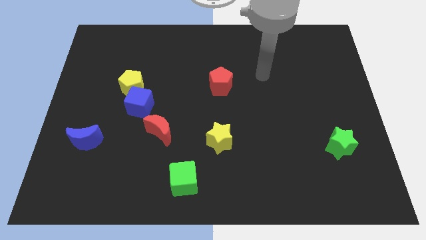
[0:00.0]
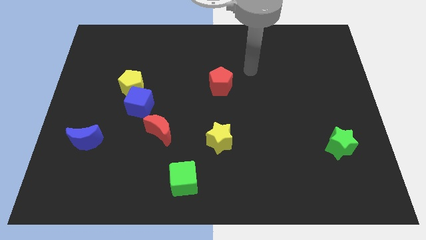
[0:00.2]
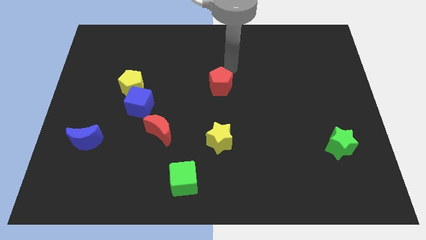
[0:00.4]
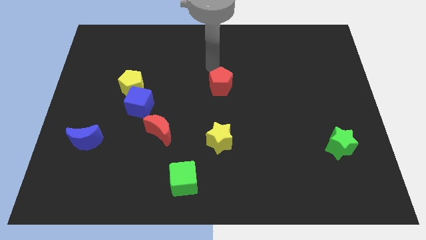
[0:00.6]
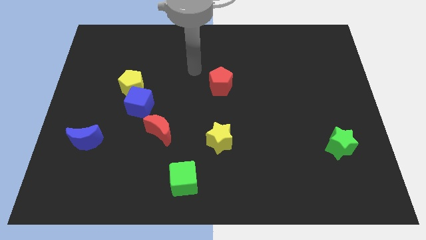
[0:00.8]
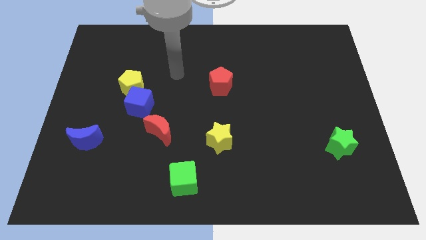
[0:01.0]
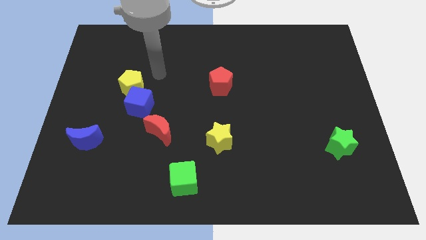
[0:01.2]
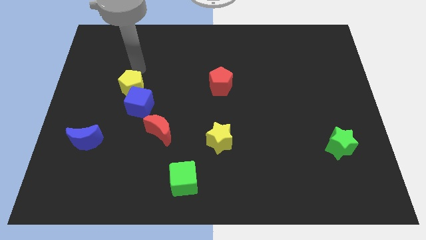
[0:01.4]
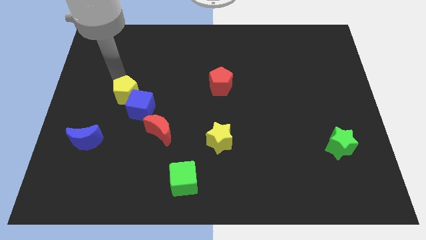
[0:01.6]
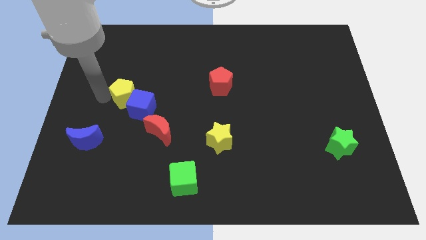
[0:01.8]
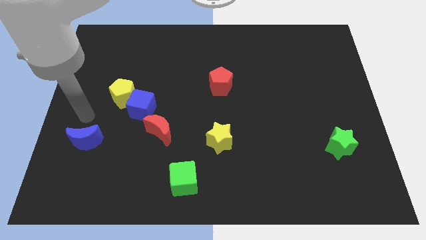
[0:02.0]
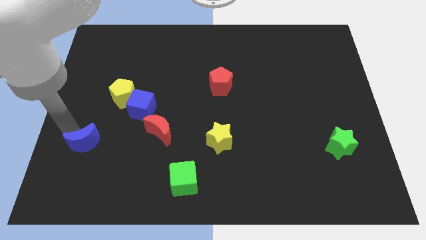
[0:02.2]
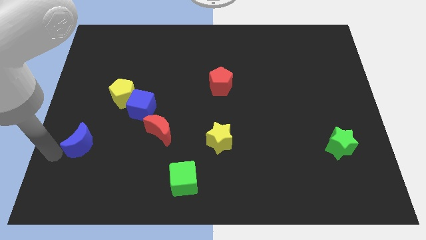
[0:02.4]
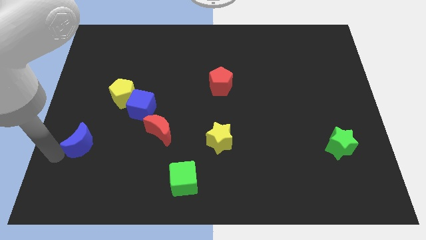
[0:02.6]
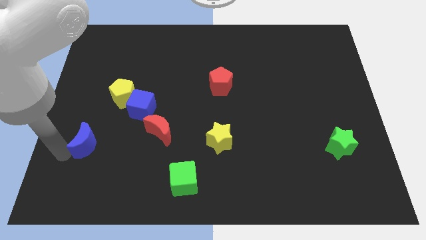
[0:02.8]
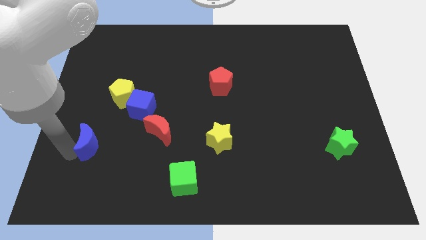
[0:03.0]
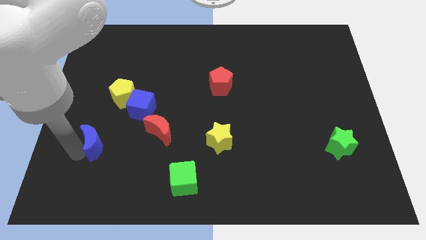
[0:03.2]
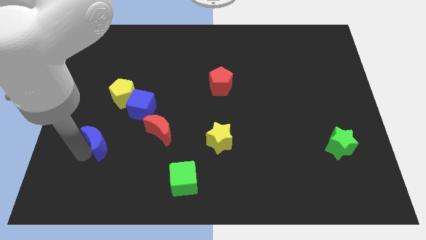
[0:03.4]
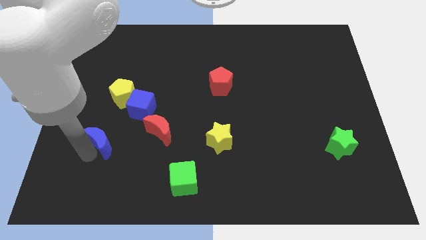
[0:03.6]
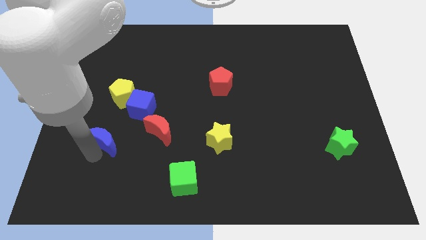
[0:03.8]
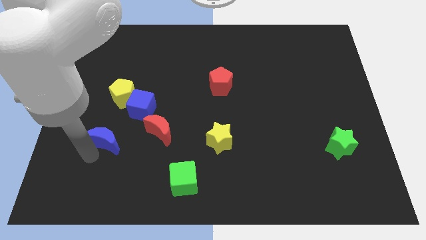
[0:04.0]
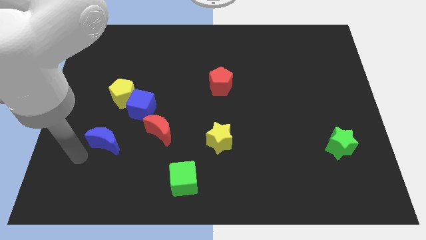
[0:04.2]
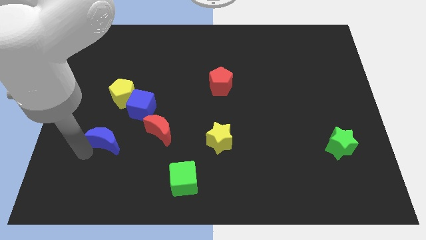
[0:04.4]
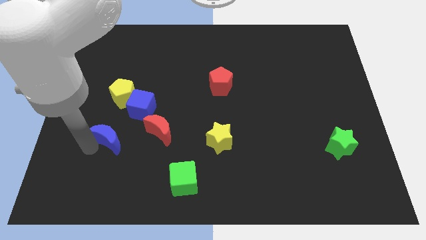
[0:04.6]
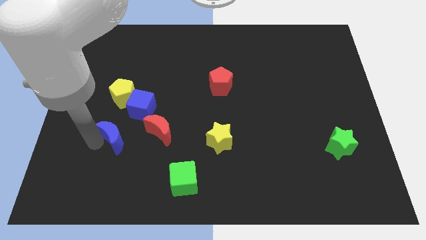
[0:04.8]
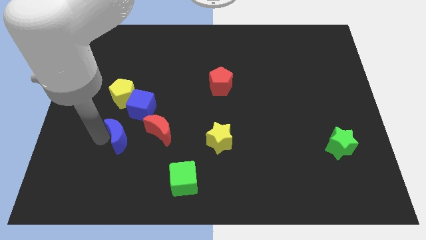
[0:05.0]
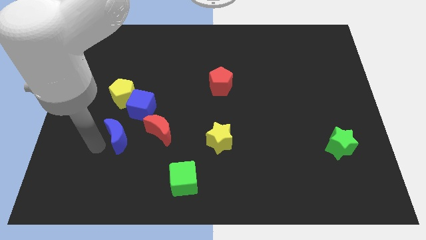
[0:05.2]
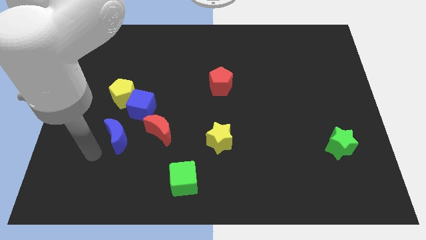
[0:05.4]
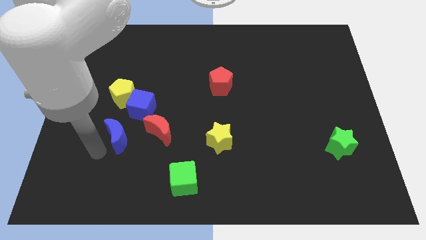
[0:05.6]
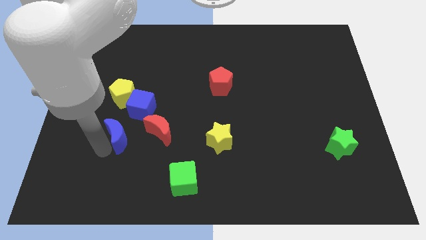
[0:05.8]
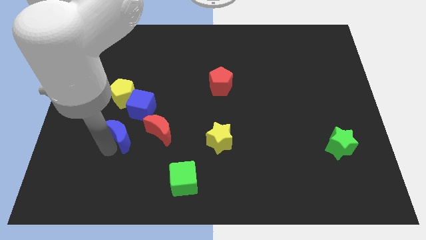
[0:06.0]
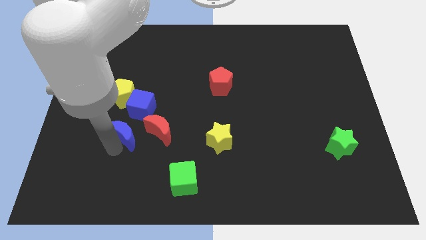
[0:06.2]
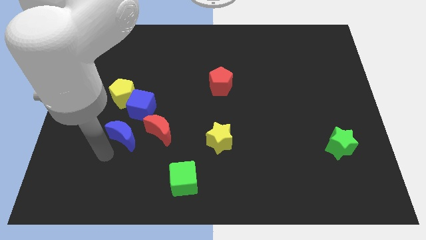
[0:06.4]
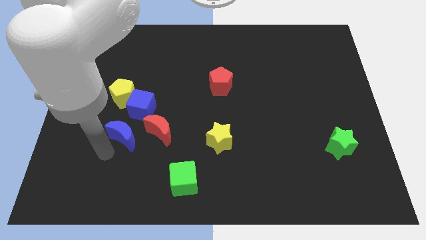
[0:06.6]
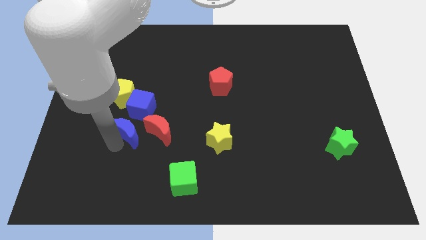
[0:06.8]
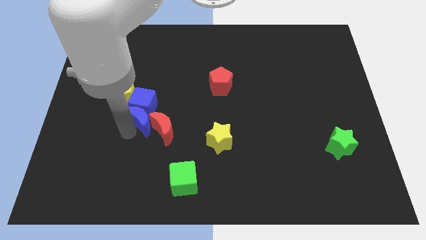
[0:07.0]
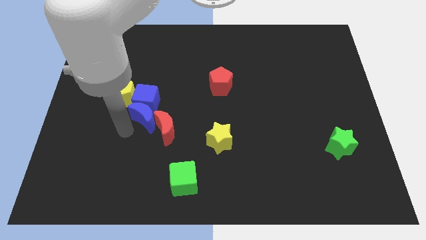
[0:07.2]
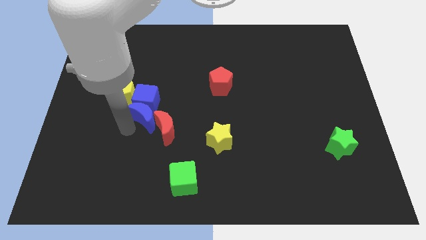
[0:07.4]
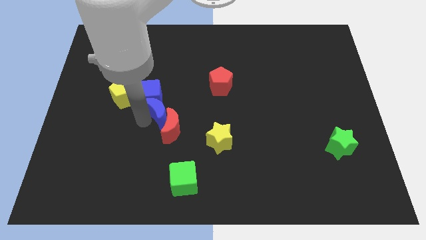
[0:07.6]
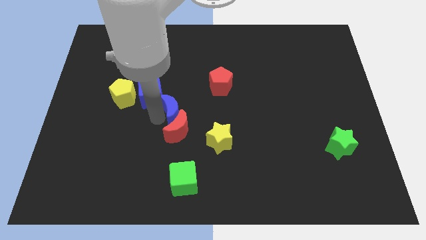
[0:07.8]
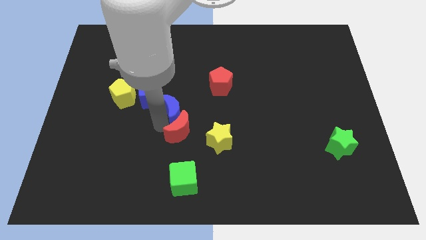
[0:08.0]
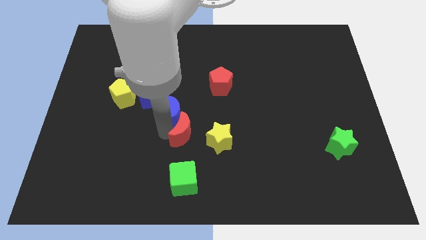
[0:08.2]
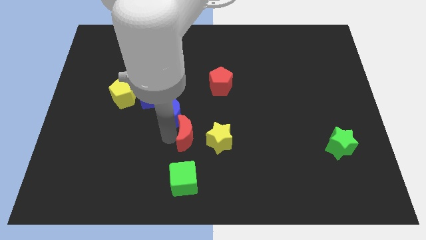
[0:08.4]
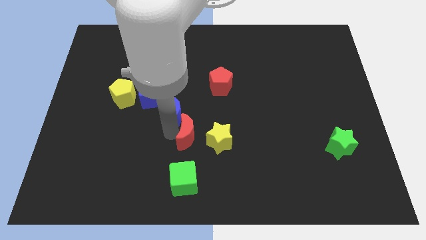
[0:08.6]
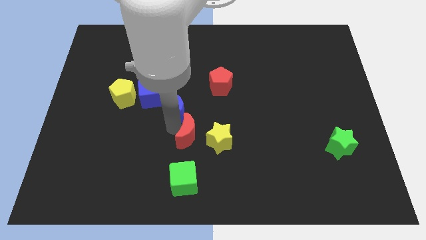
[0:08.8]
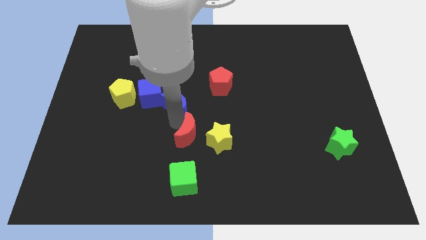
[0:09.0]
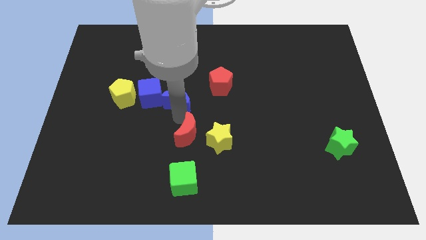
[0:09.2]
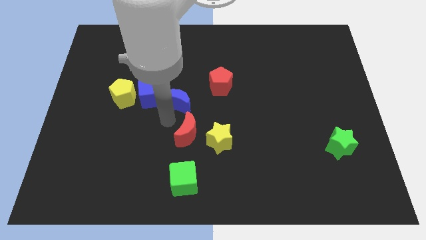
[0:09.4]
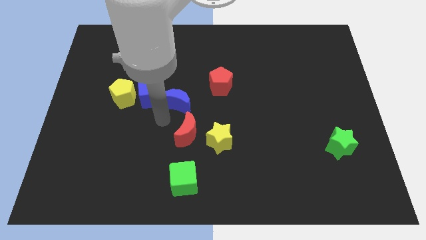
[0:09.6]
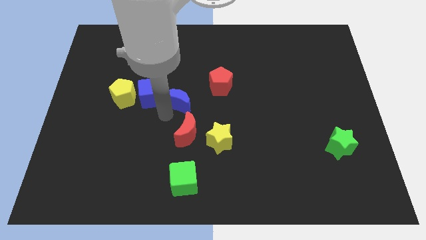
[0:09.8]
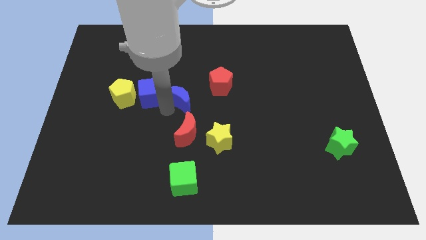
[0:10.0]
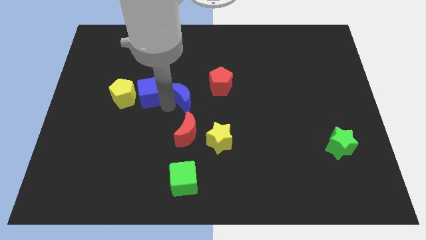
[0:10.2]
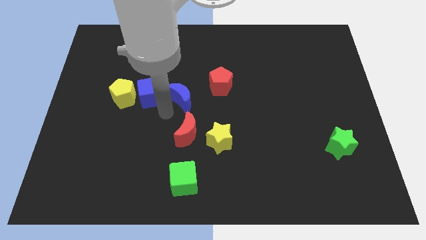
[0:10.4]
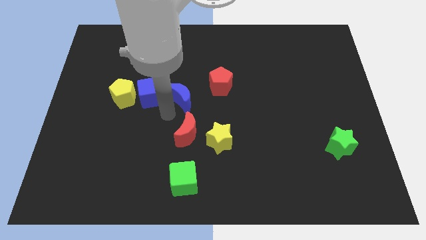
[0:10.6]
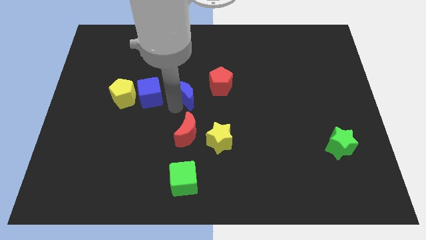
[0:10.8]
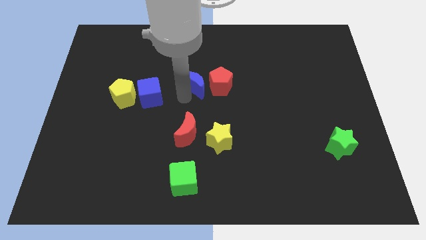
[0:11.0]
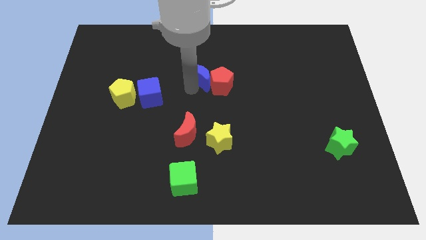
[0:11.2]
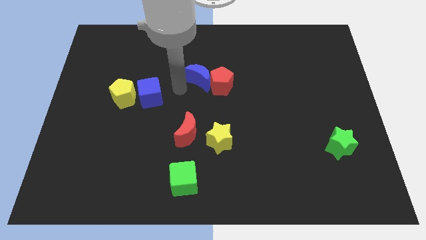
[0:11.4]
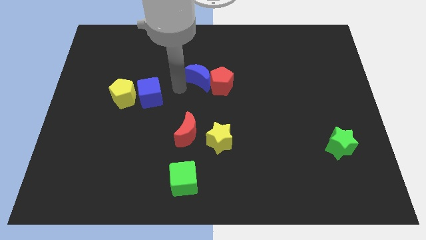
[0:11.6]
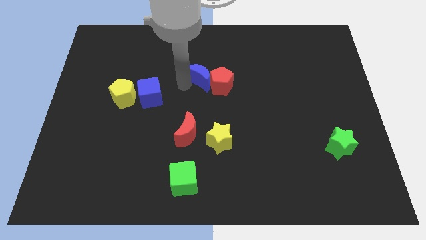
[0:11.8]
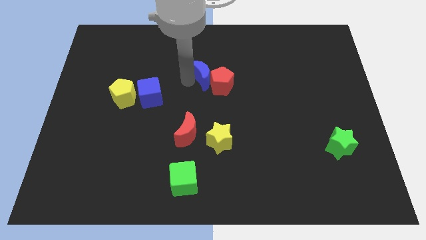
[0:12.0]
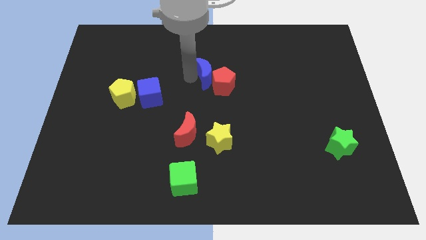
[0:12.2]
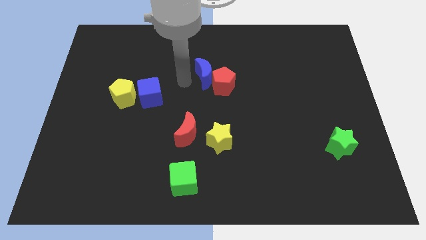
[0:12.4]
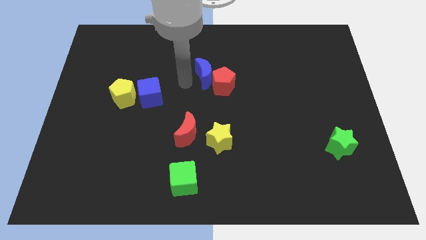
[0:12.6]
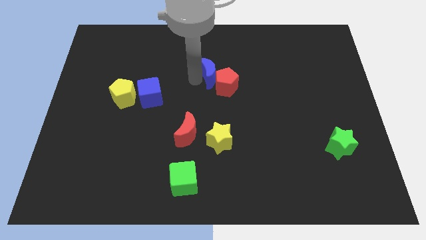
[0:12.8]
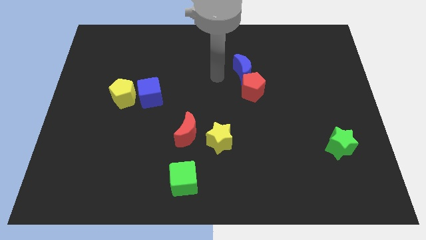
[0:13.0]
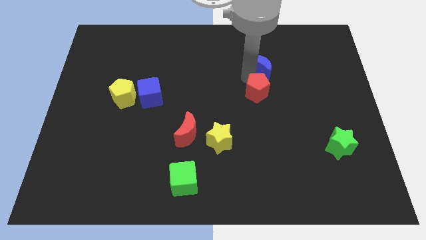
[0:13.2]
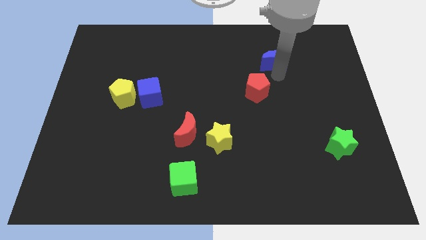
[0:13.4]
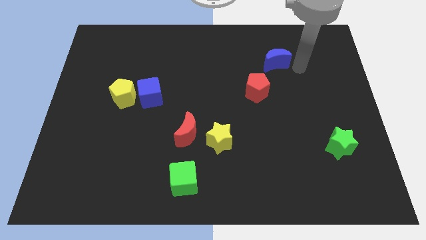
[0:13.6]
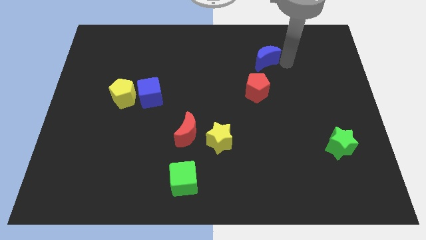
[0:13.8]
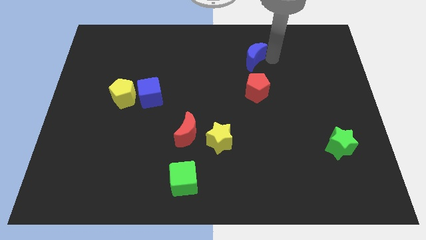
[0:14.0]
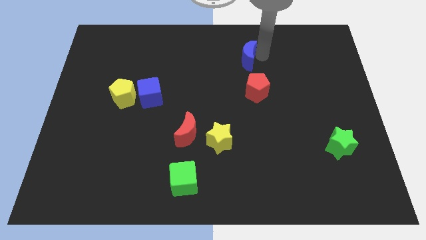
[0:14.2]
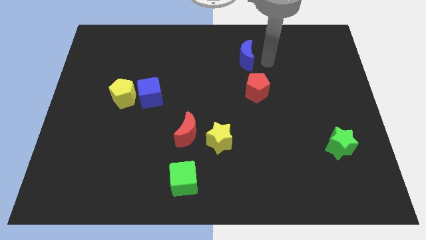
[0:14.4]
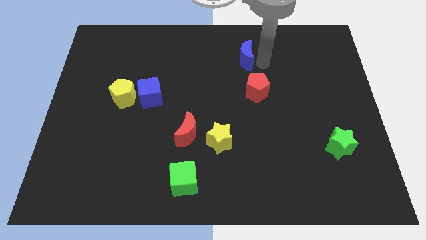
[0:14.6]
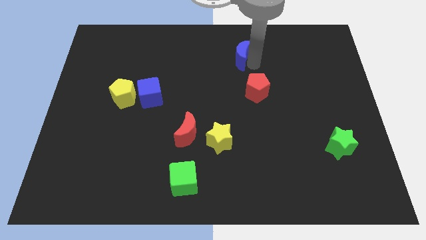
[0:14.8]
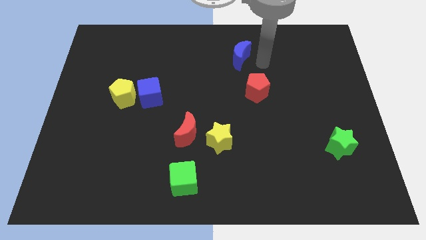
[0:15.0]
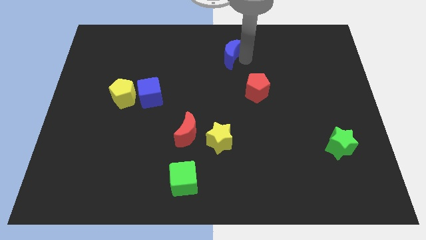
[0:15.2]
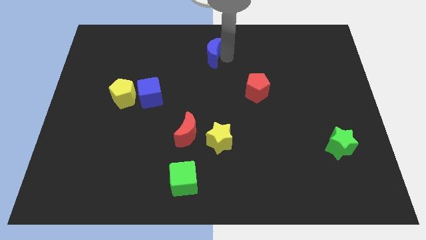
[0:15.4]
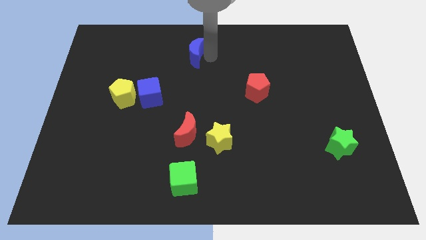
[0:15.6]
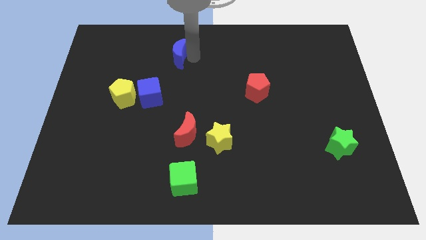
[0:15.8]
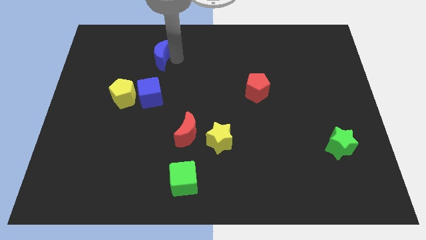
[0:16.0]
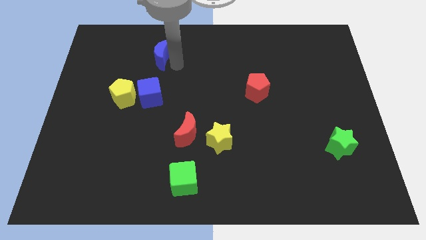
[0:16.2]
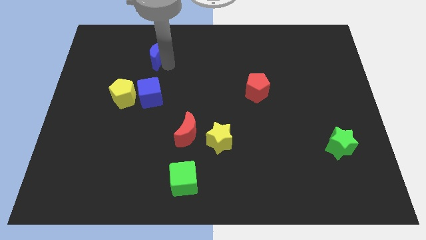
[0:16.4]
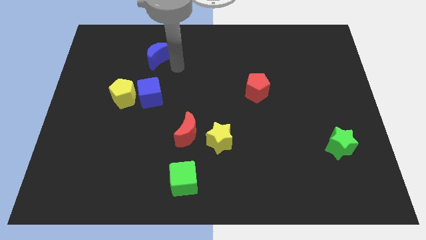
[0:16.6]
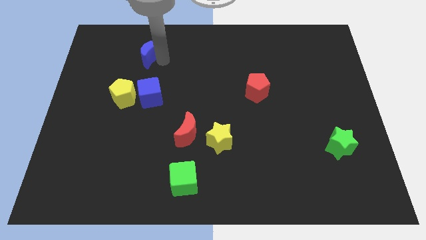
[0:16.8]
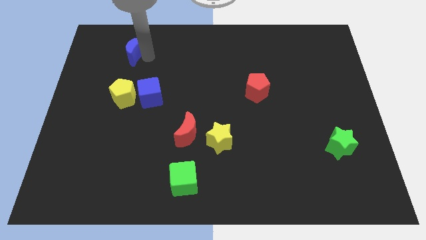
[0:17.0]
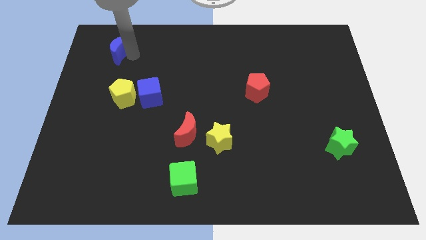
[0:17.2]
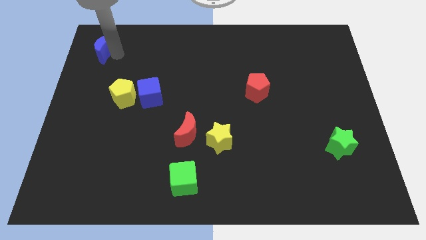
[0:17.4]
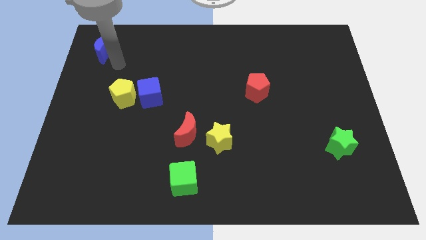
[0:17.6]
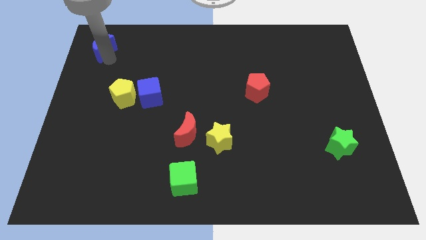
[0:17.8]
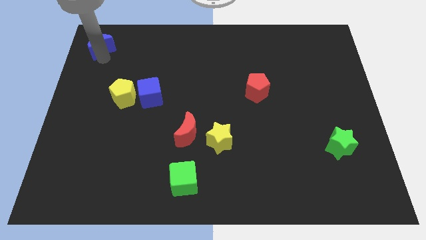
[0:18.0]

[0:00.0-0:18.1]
push the blue moon to the upper left corner
